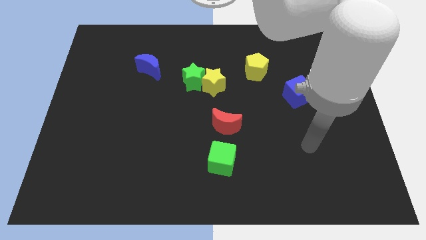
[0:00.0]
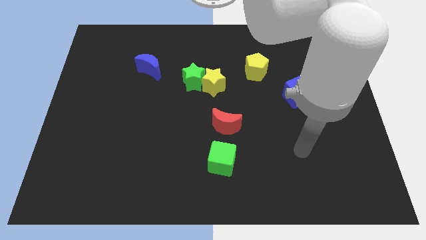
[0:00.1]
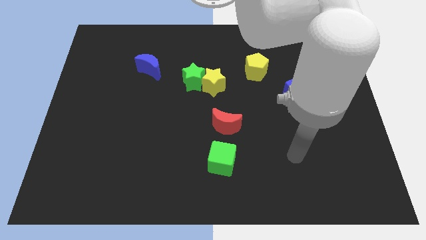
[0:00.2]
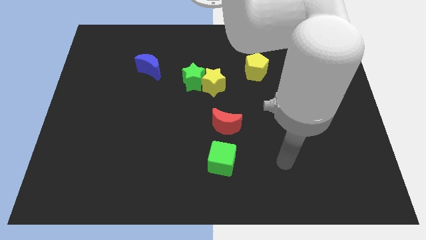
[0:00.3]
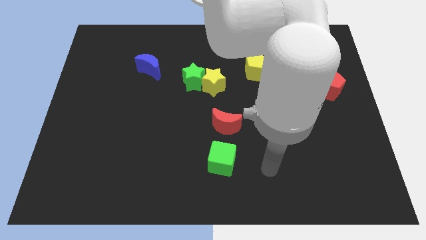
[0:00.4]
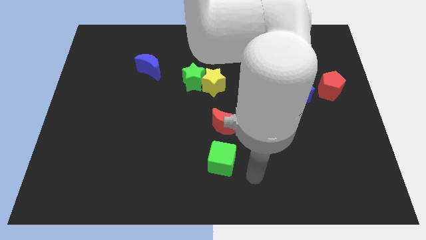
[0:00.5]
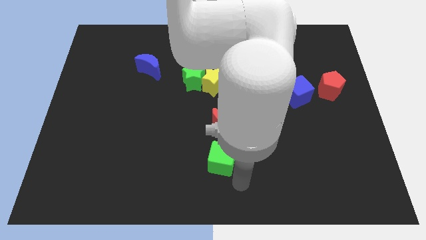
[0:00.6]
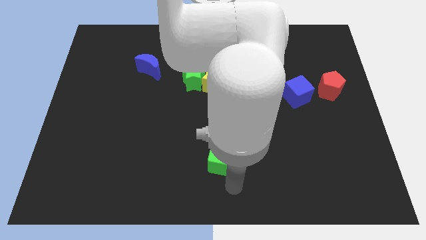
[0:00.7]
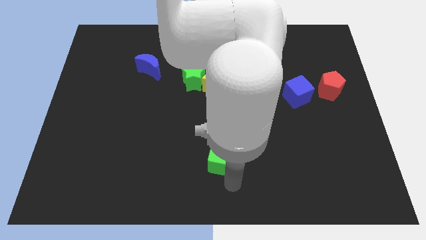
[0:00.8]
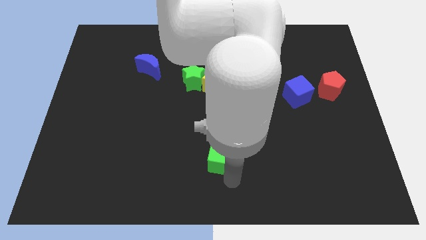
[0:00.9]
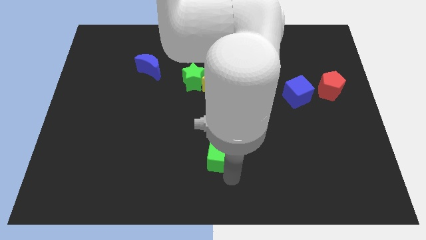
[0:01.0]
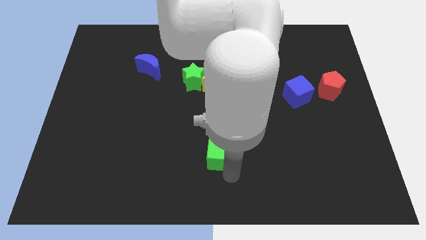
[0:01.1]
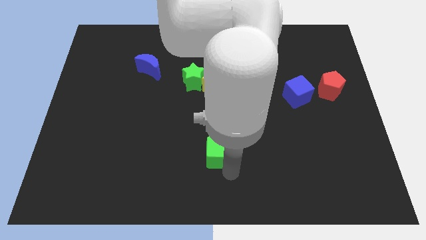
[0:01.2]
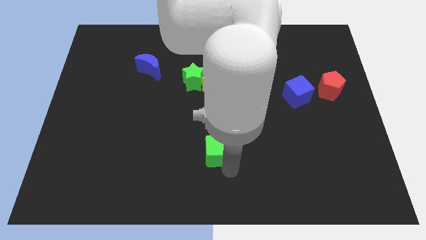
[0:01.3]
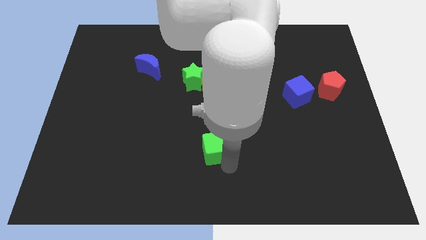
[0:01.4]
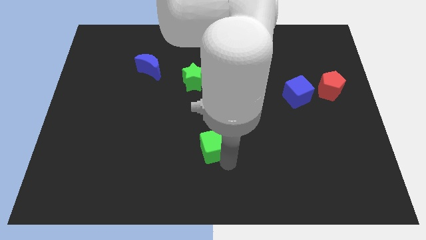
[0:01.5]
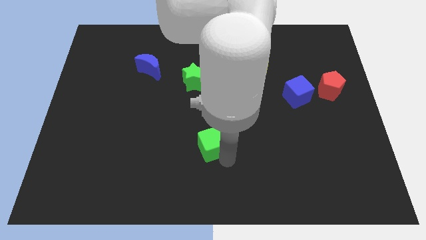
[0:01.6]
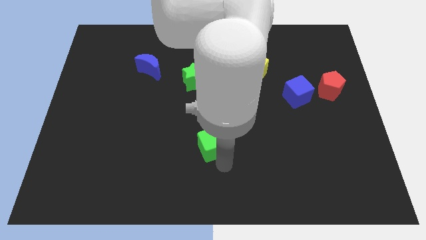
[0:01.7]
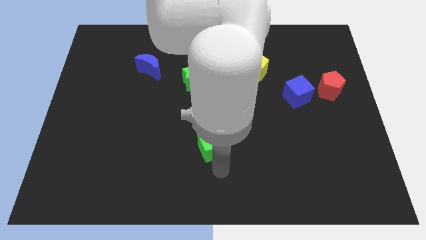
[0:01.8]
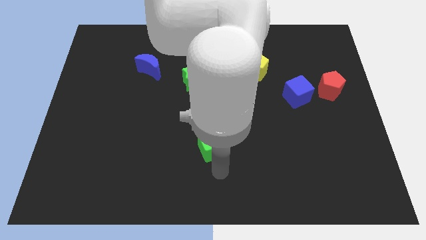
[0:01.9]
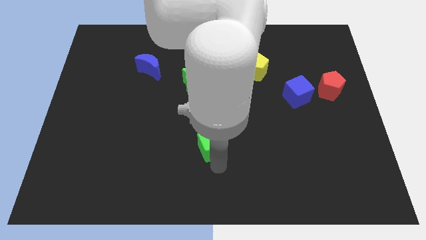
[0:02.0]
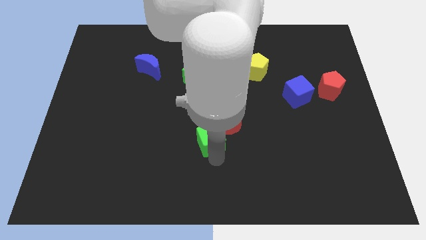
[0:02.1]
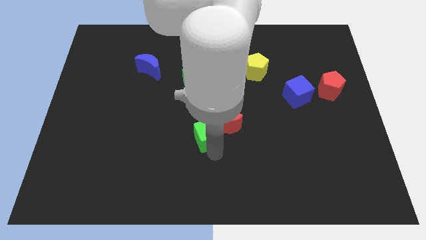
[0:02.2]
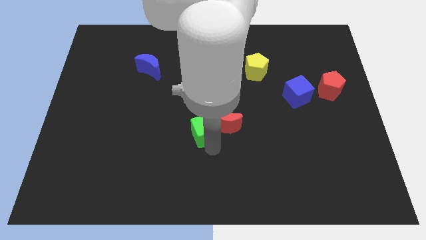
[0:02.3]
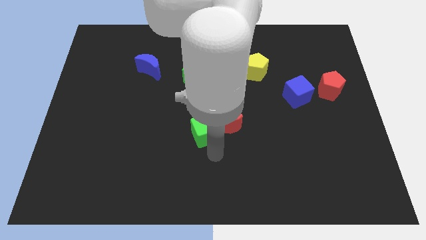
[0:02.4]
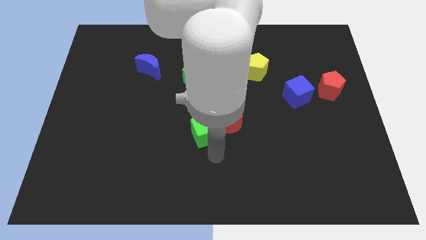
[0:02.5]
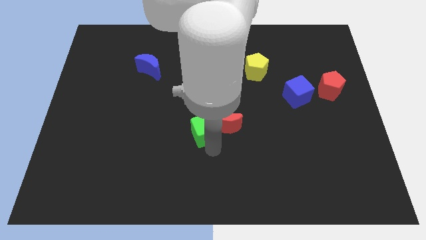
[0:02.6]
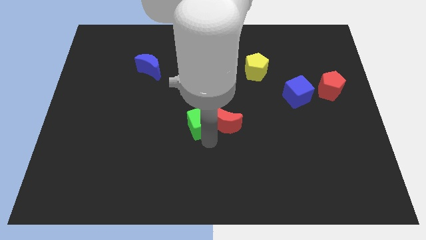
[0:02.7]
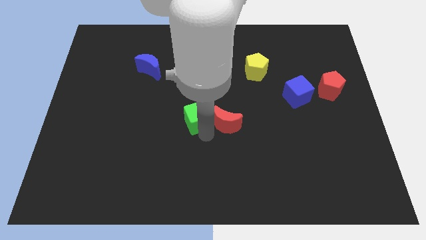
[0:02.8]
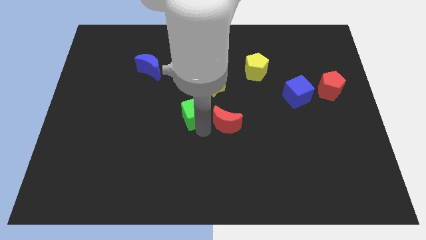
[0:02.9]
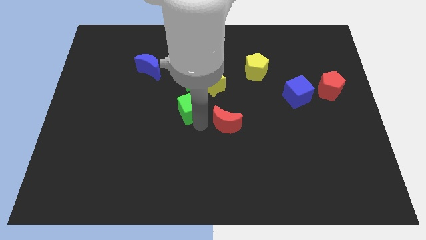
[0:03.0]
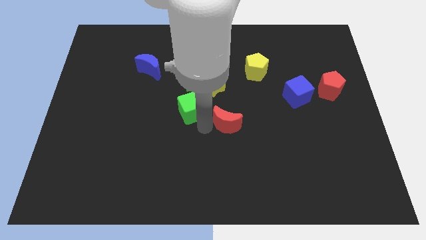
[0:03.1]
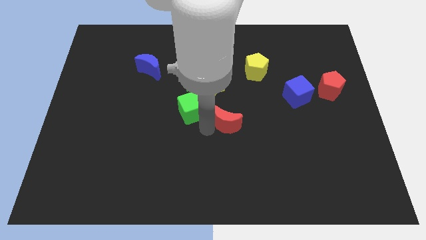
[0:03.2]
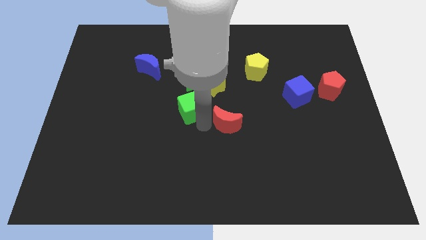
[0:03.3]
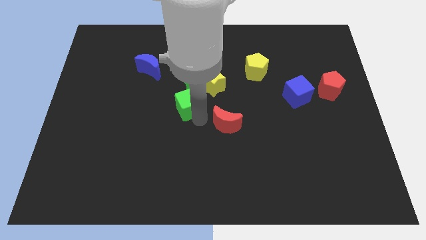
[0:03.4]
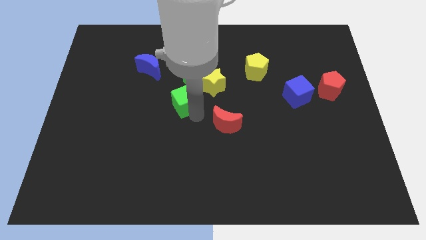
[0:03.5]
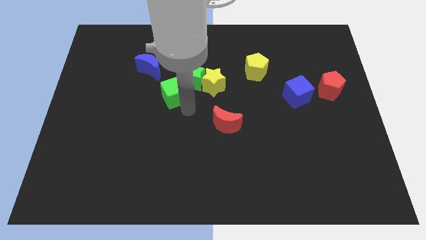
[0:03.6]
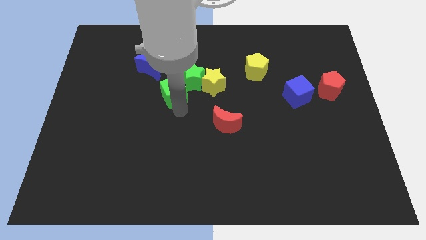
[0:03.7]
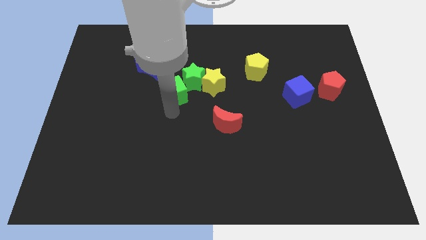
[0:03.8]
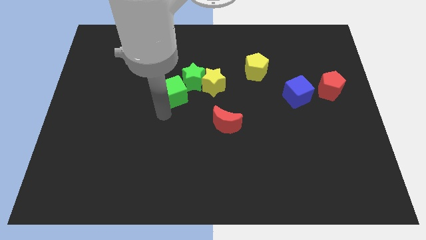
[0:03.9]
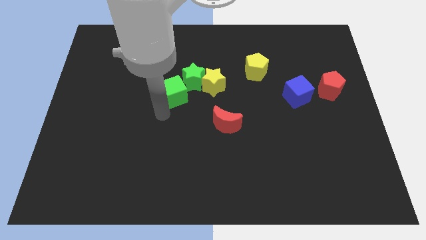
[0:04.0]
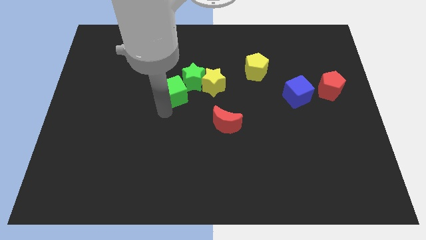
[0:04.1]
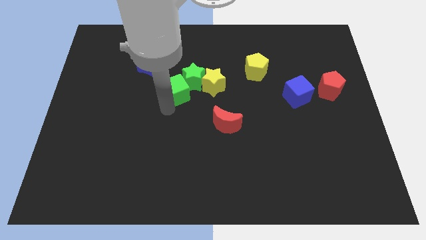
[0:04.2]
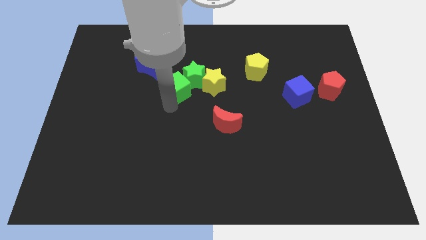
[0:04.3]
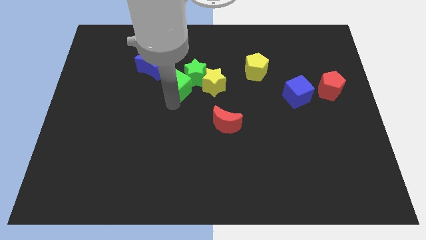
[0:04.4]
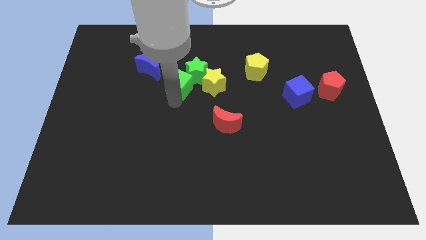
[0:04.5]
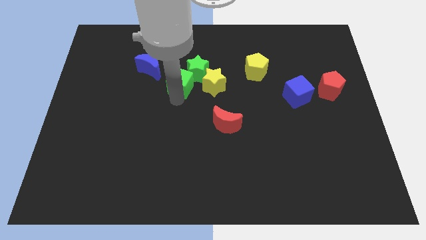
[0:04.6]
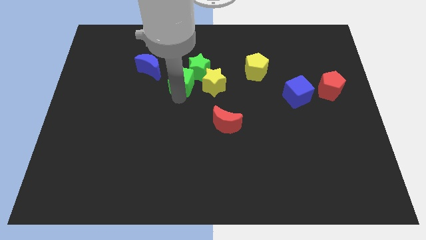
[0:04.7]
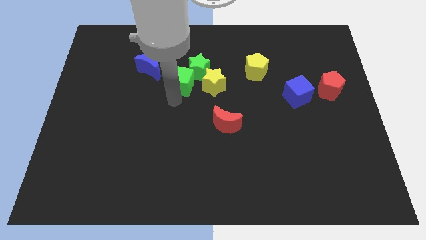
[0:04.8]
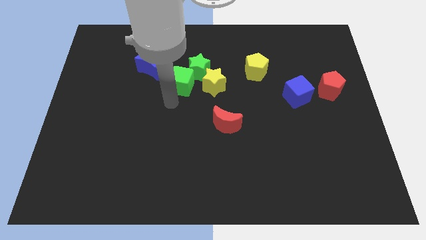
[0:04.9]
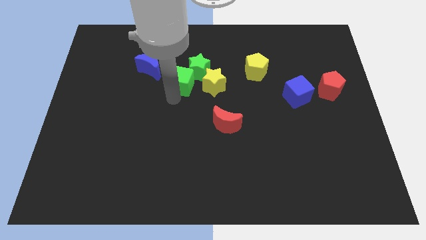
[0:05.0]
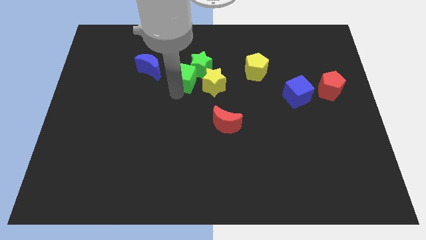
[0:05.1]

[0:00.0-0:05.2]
push the green cube to the right side of the blue moon

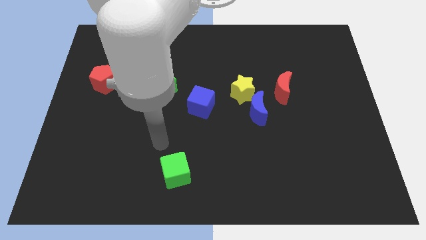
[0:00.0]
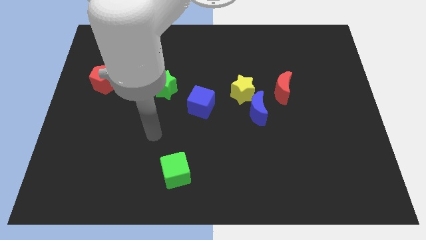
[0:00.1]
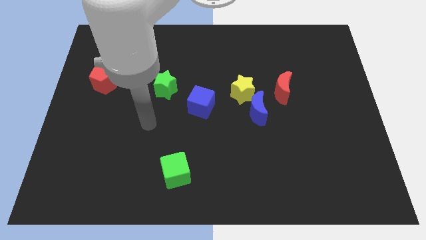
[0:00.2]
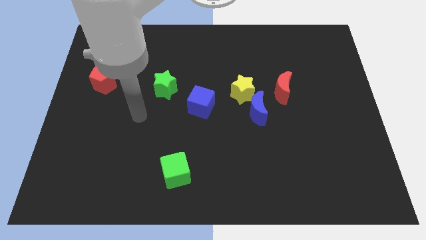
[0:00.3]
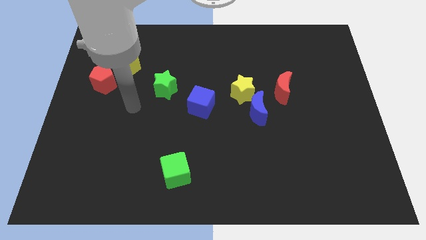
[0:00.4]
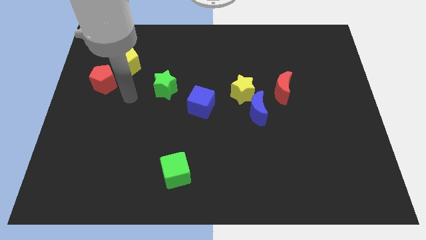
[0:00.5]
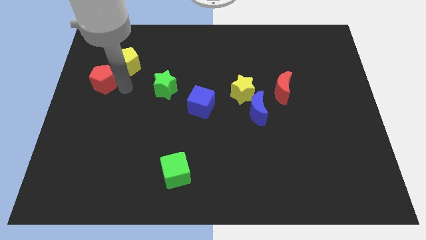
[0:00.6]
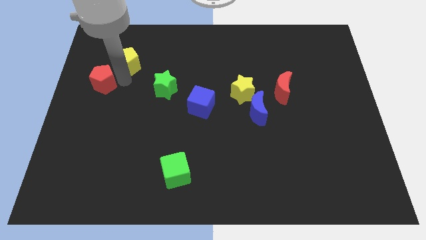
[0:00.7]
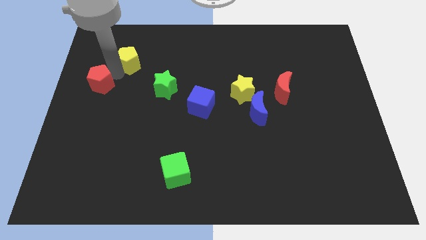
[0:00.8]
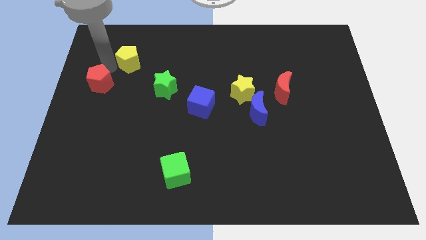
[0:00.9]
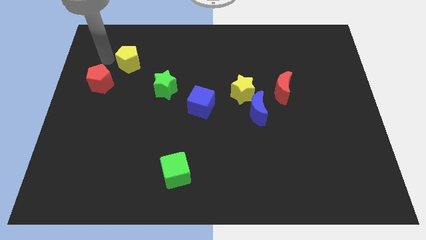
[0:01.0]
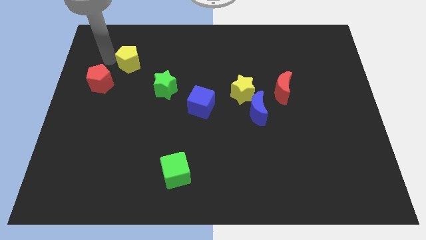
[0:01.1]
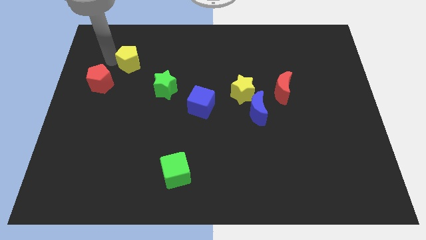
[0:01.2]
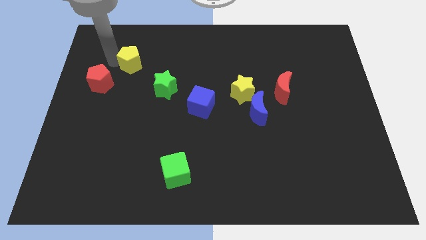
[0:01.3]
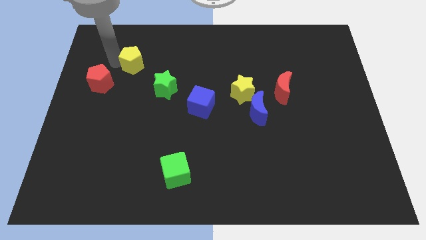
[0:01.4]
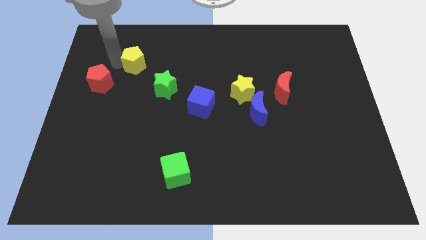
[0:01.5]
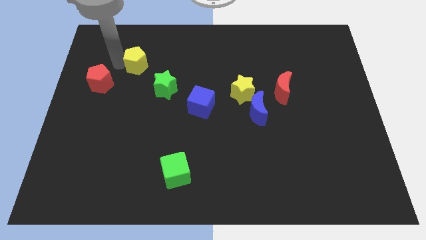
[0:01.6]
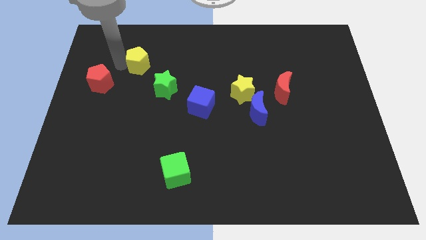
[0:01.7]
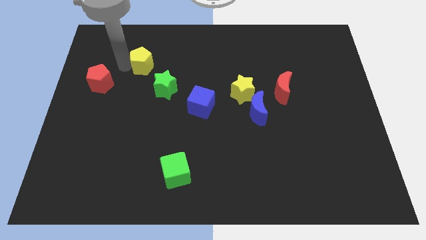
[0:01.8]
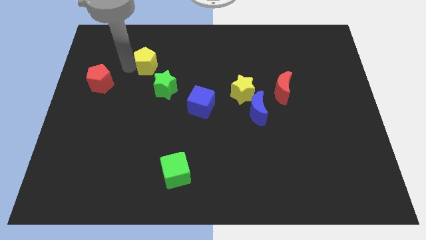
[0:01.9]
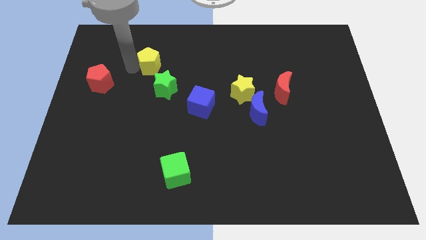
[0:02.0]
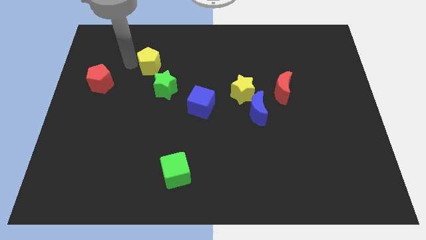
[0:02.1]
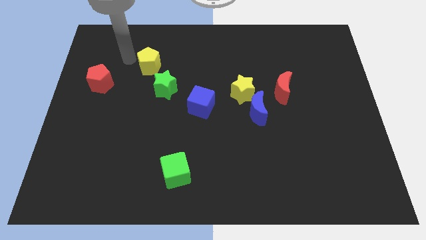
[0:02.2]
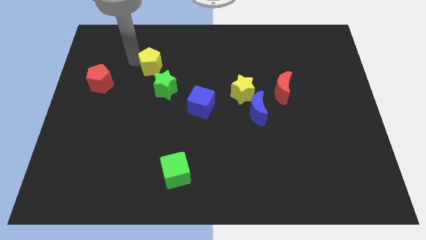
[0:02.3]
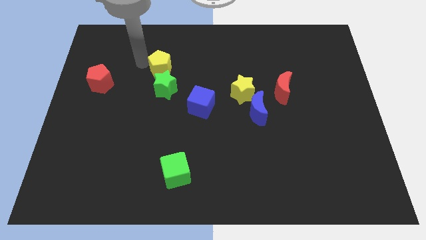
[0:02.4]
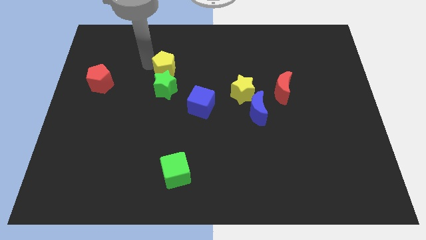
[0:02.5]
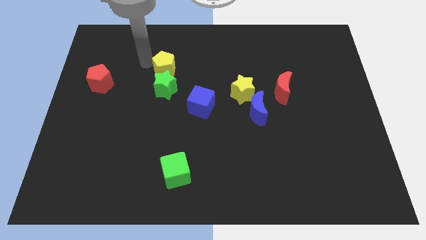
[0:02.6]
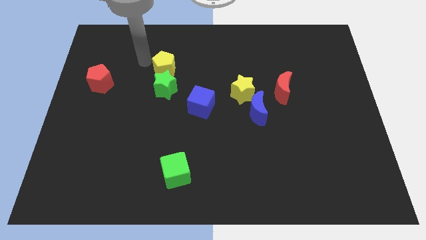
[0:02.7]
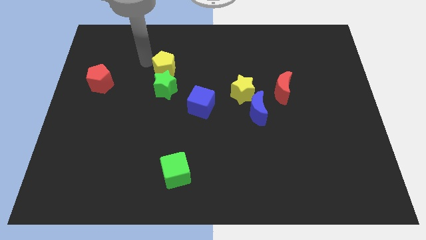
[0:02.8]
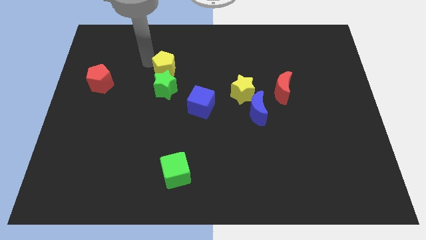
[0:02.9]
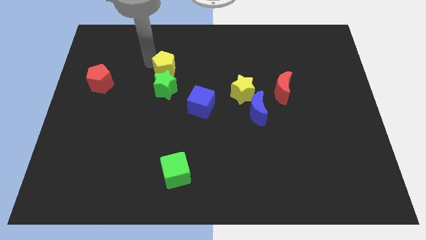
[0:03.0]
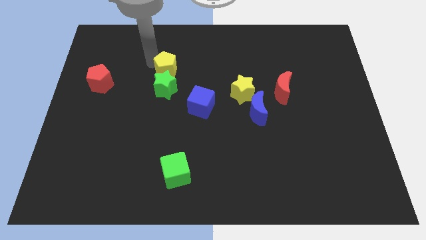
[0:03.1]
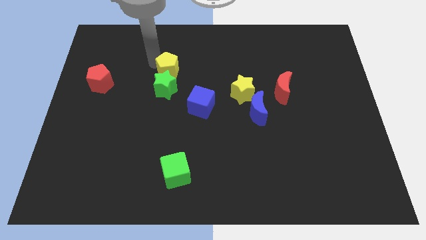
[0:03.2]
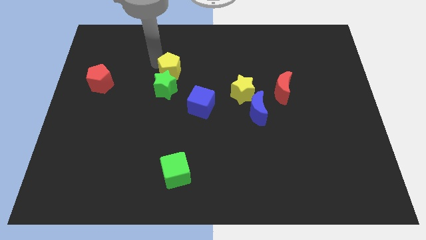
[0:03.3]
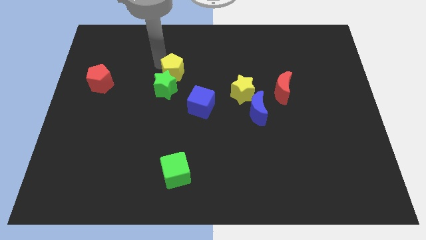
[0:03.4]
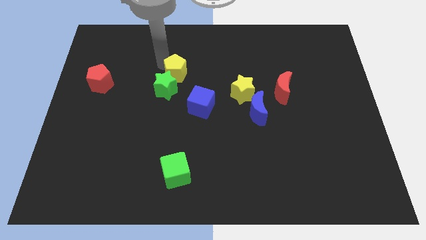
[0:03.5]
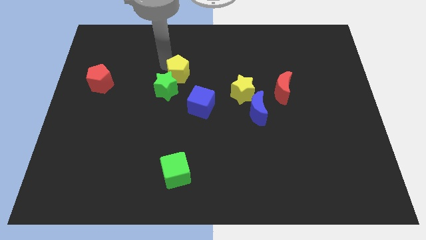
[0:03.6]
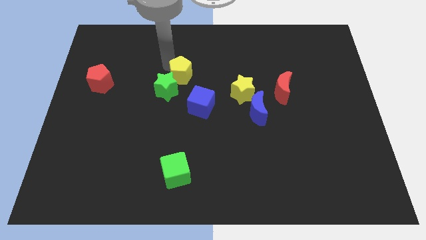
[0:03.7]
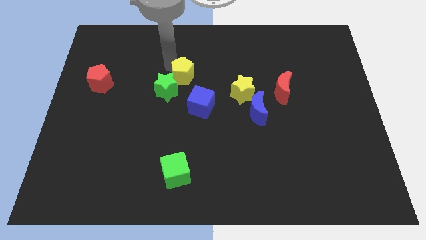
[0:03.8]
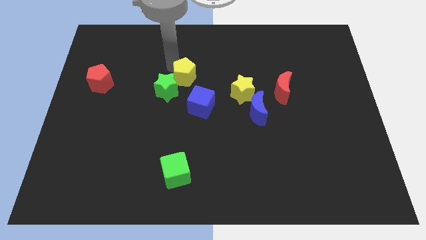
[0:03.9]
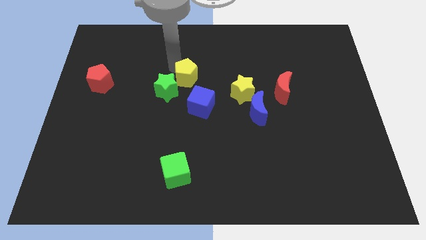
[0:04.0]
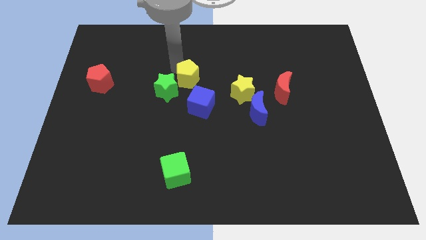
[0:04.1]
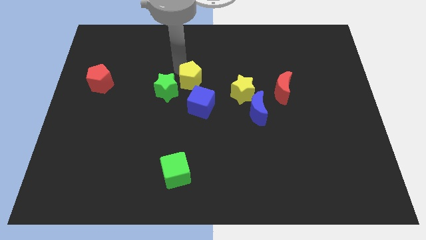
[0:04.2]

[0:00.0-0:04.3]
slide the yellow pentagon left of the yellow star
